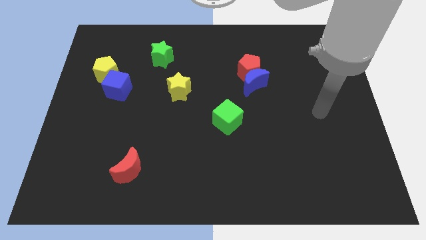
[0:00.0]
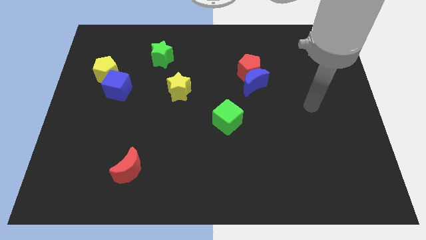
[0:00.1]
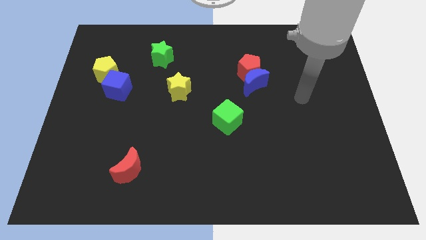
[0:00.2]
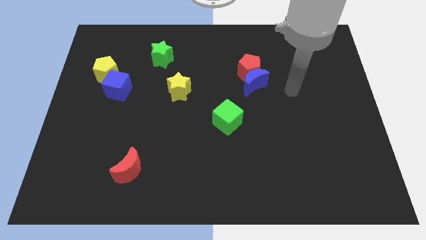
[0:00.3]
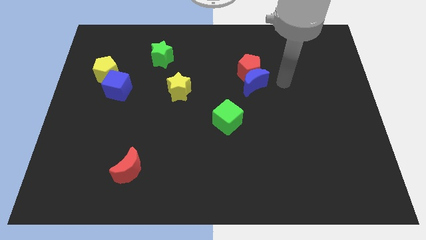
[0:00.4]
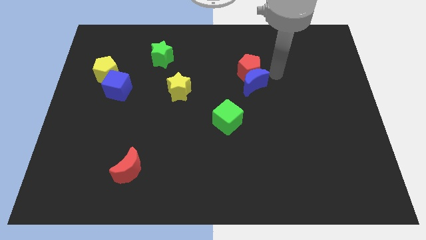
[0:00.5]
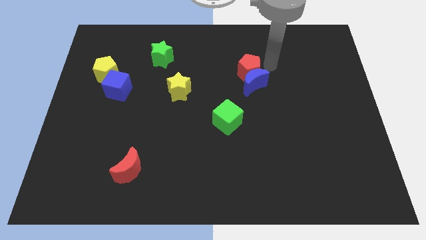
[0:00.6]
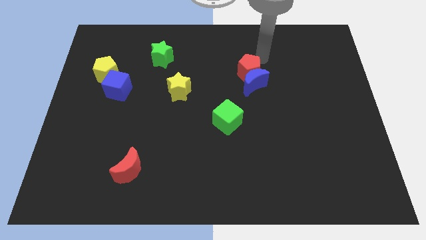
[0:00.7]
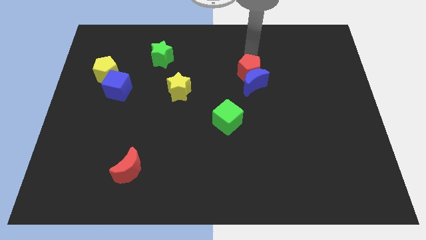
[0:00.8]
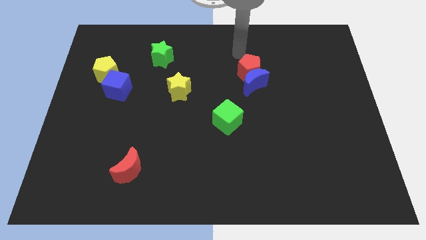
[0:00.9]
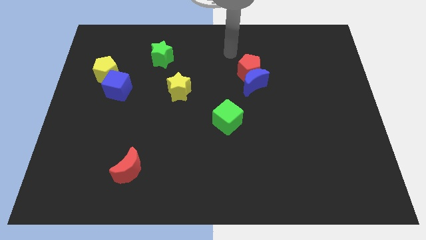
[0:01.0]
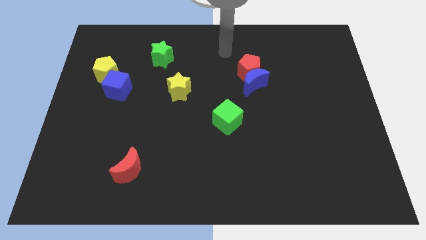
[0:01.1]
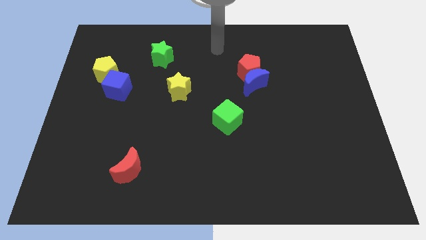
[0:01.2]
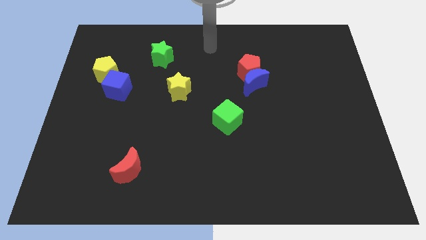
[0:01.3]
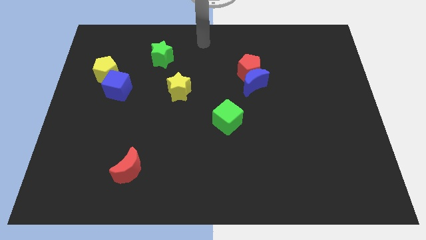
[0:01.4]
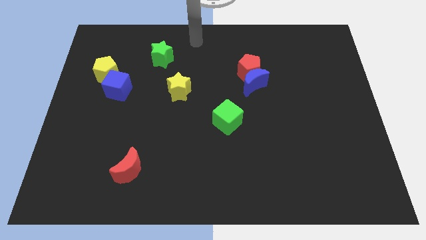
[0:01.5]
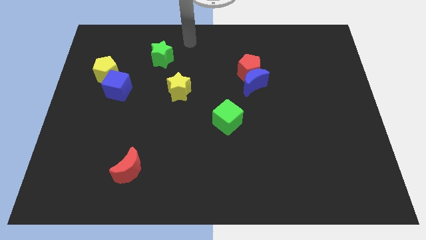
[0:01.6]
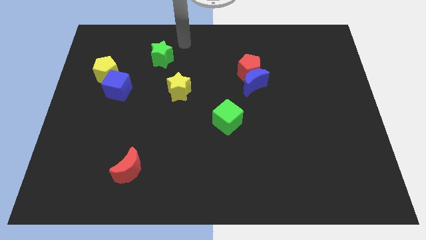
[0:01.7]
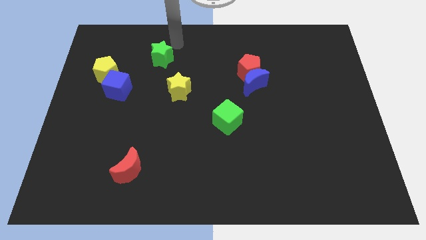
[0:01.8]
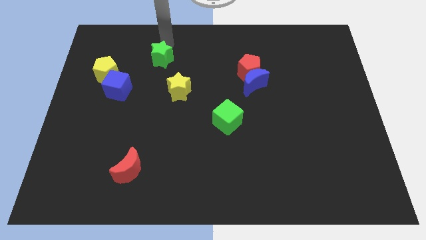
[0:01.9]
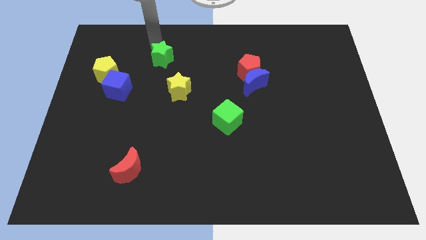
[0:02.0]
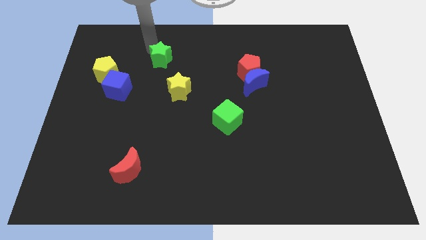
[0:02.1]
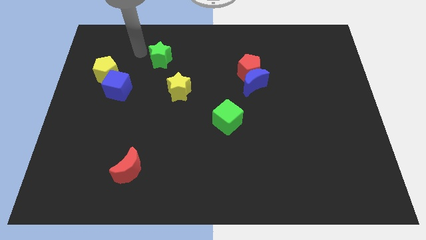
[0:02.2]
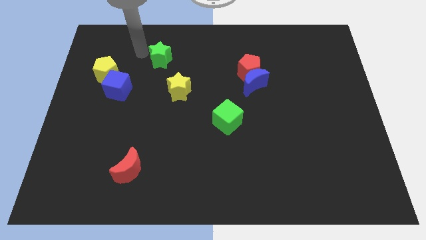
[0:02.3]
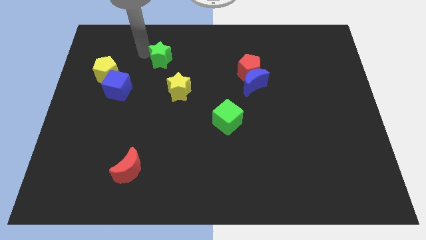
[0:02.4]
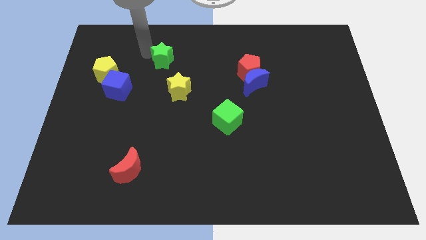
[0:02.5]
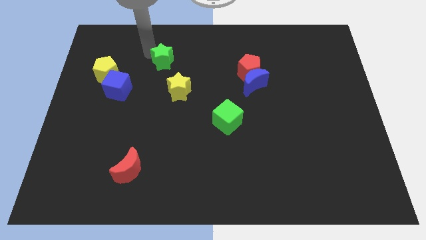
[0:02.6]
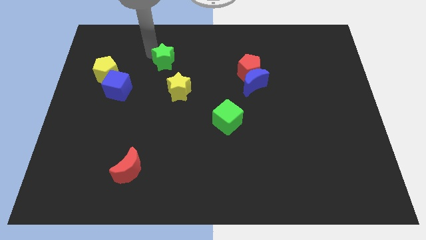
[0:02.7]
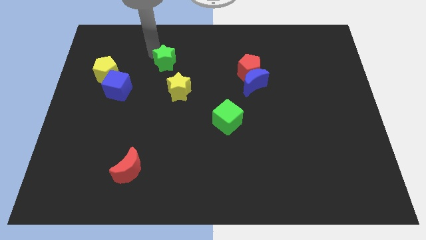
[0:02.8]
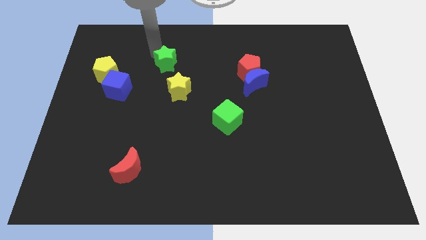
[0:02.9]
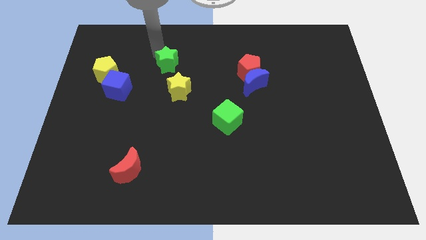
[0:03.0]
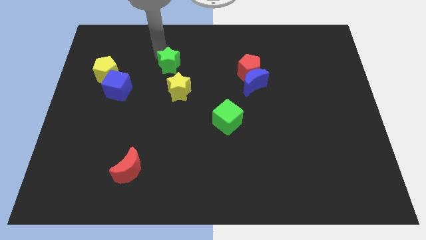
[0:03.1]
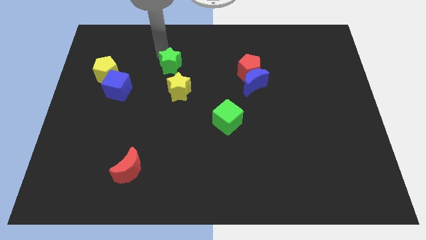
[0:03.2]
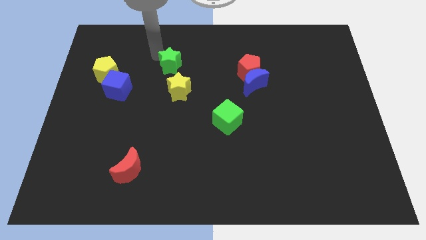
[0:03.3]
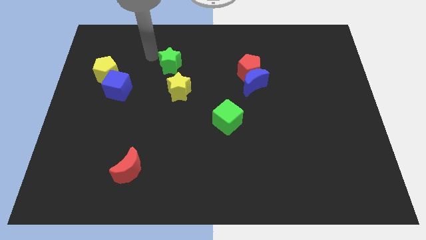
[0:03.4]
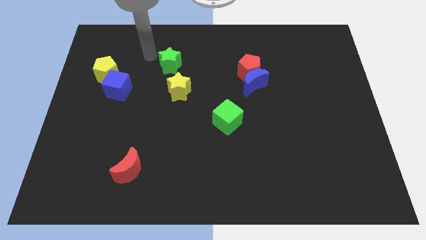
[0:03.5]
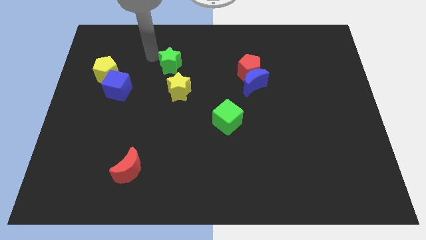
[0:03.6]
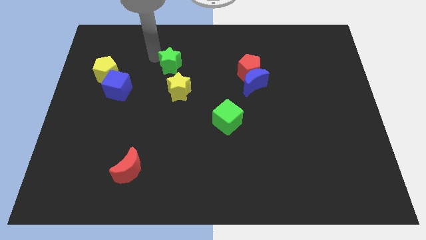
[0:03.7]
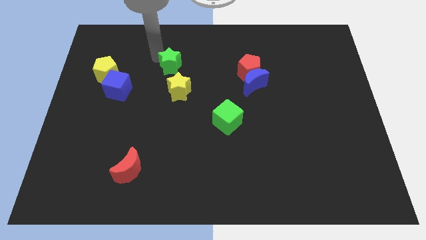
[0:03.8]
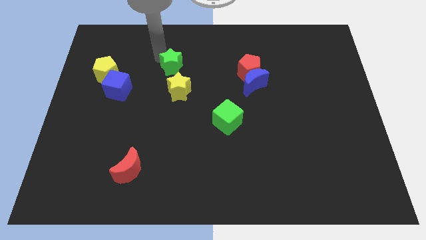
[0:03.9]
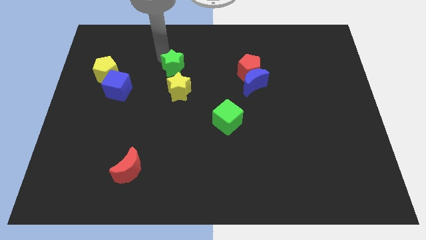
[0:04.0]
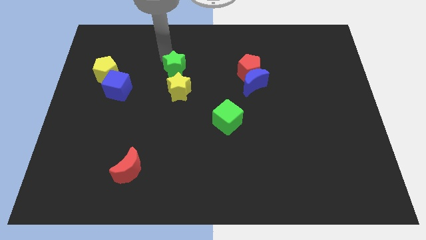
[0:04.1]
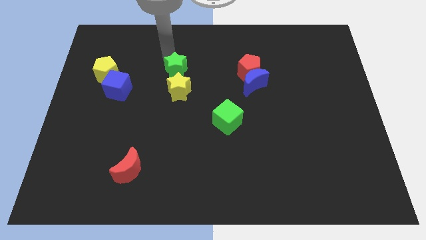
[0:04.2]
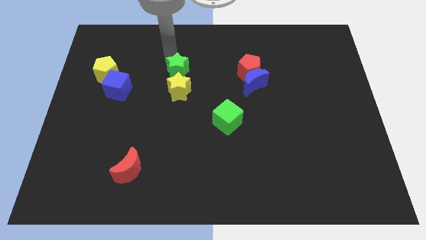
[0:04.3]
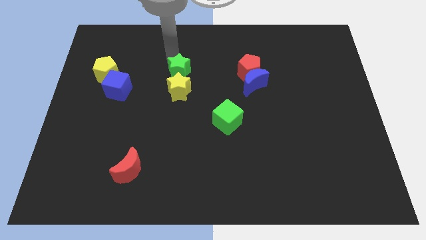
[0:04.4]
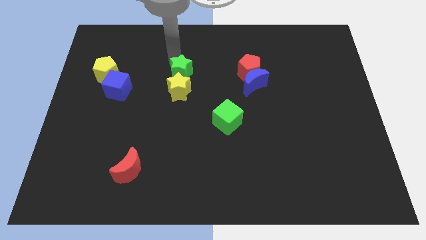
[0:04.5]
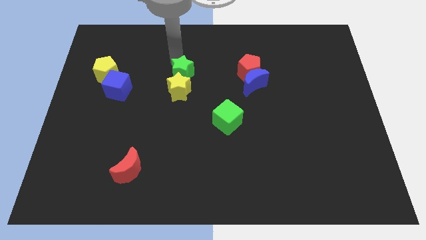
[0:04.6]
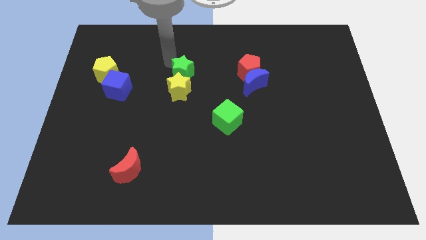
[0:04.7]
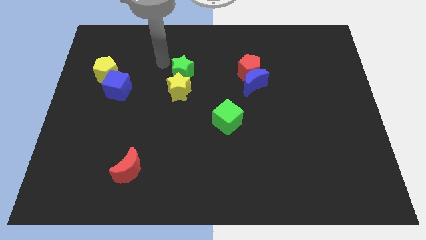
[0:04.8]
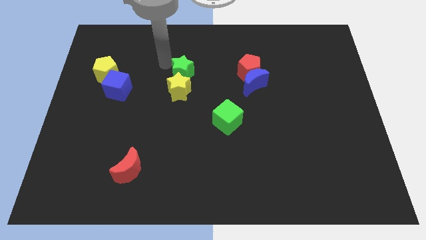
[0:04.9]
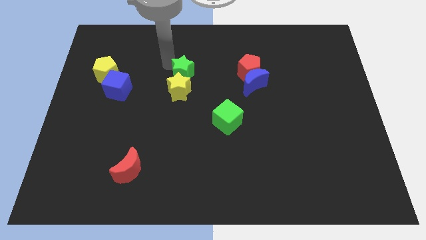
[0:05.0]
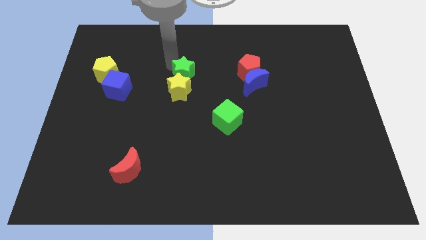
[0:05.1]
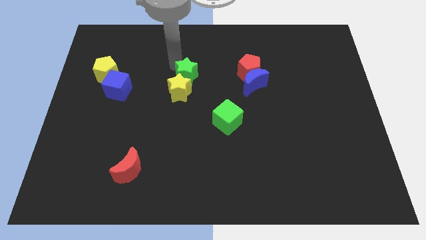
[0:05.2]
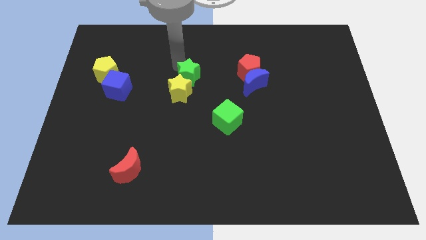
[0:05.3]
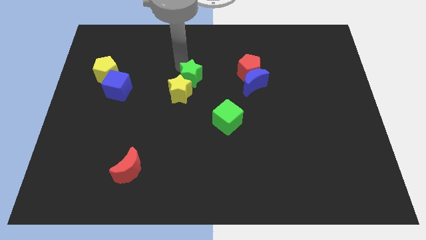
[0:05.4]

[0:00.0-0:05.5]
move the green star just left of the blue moon
